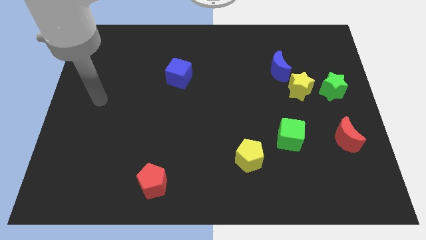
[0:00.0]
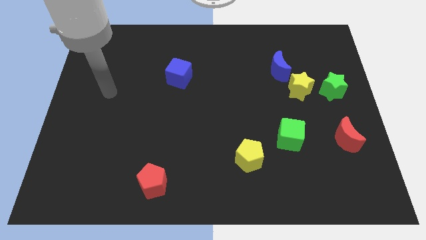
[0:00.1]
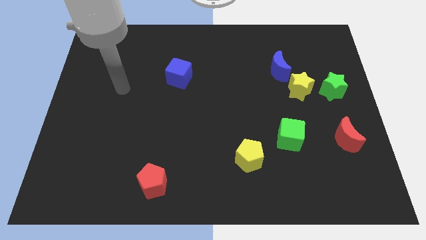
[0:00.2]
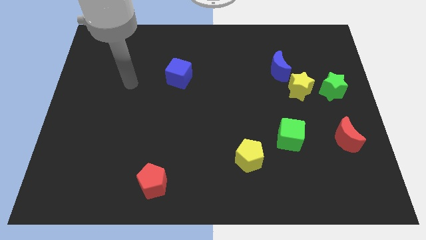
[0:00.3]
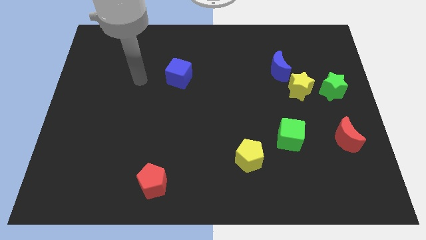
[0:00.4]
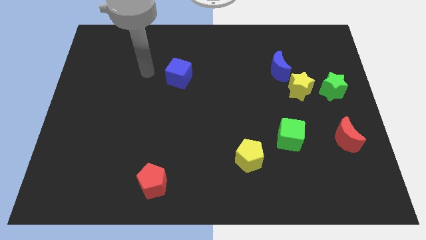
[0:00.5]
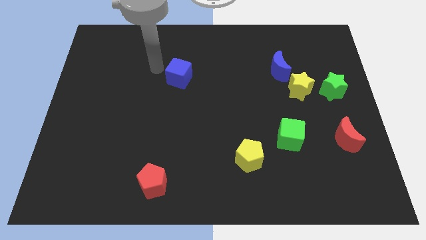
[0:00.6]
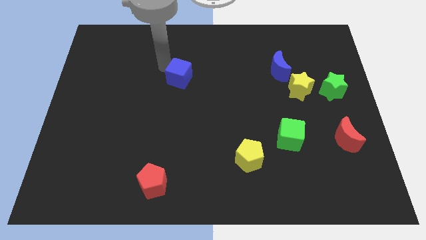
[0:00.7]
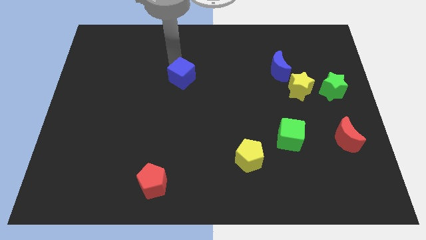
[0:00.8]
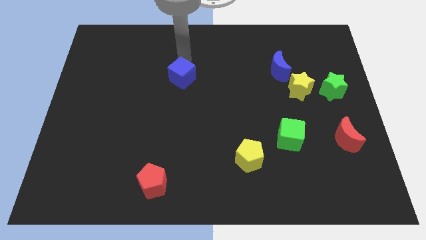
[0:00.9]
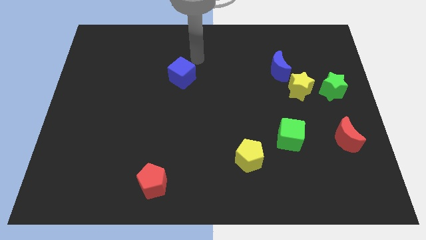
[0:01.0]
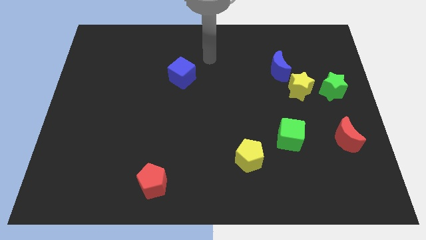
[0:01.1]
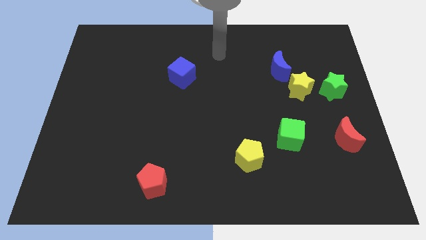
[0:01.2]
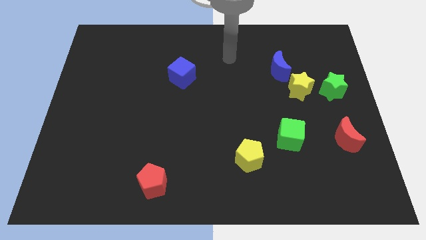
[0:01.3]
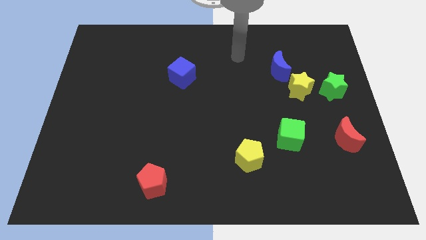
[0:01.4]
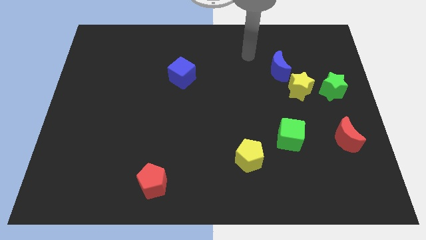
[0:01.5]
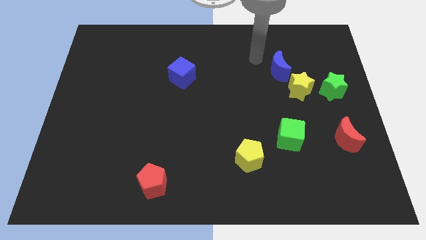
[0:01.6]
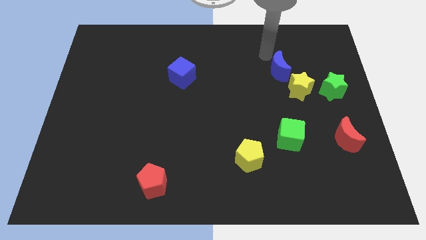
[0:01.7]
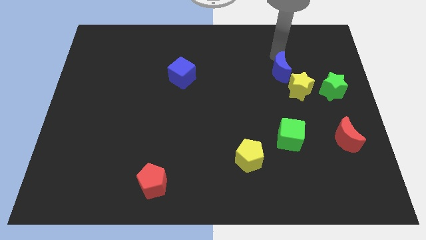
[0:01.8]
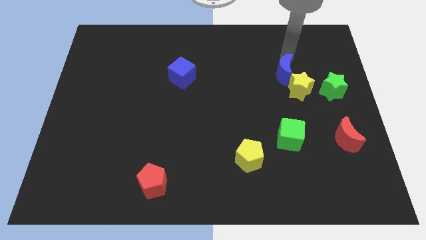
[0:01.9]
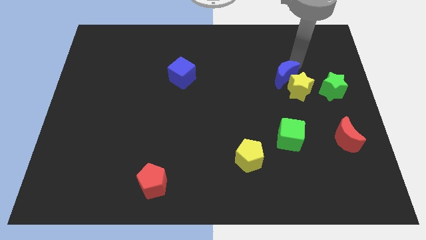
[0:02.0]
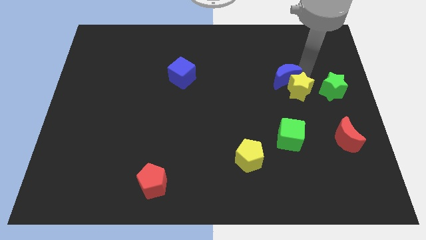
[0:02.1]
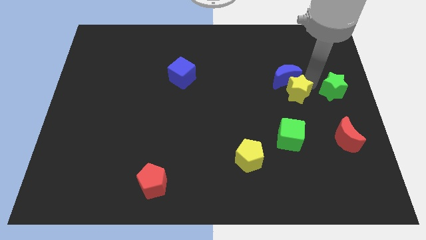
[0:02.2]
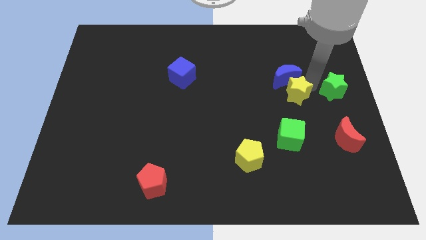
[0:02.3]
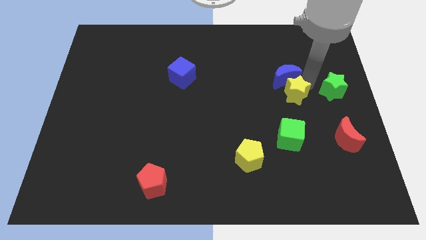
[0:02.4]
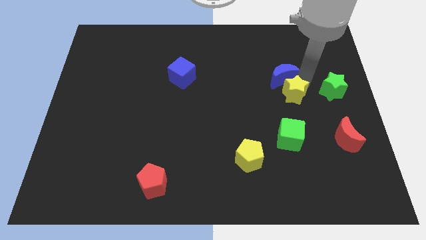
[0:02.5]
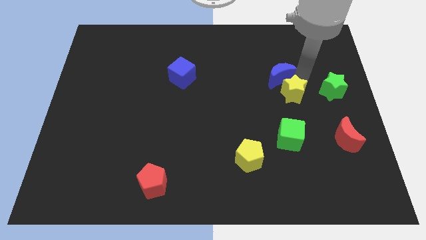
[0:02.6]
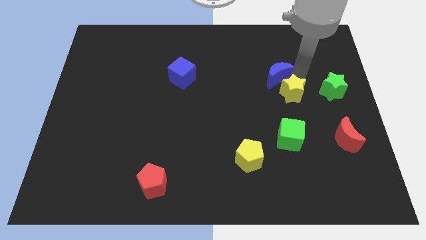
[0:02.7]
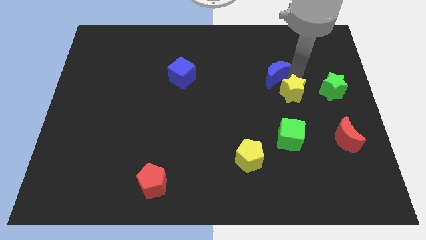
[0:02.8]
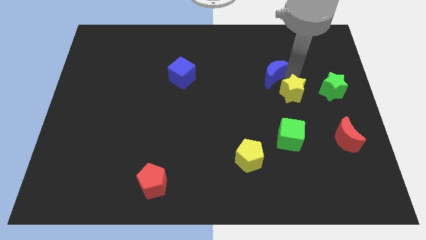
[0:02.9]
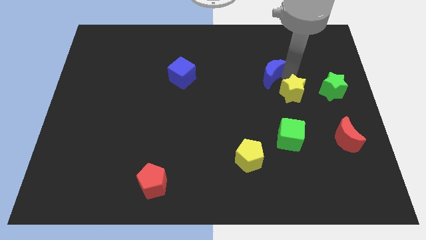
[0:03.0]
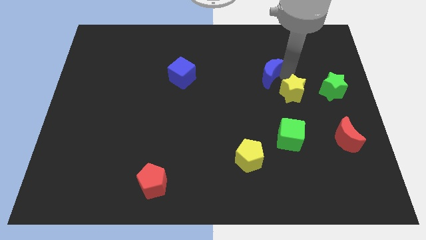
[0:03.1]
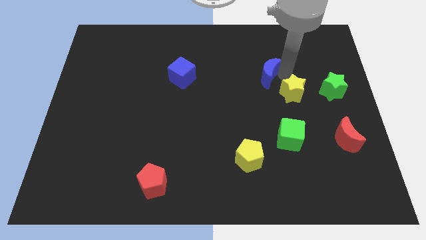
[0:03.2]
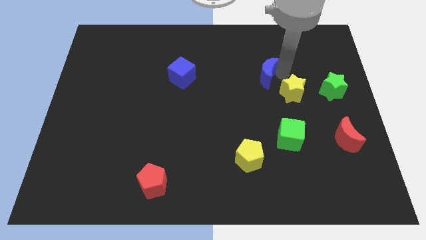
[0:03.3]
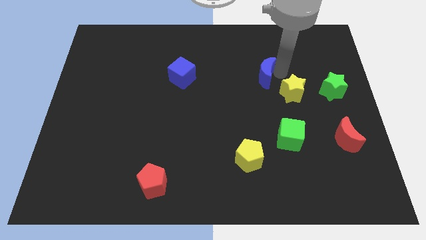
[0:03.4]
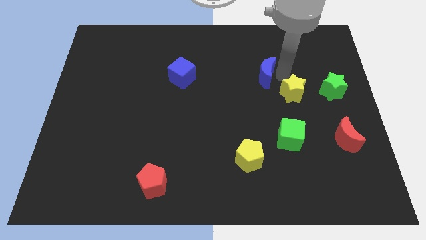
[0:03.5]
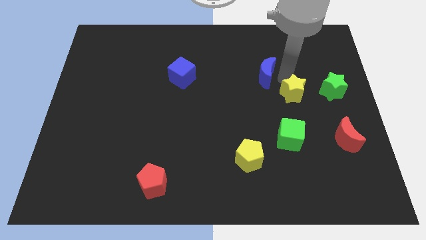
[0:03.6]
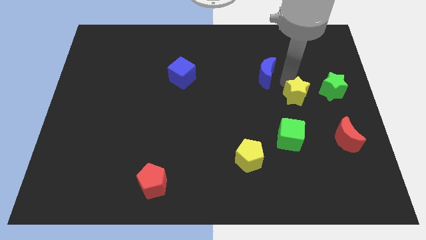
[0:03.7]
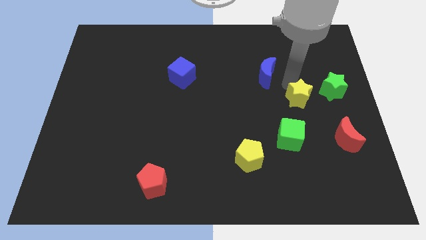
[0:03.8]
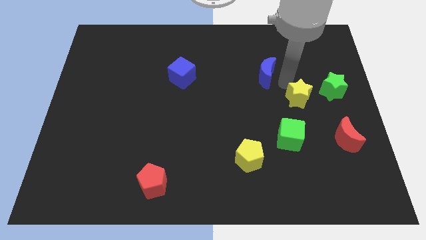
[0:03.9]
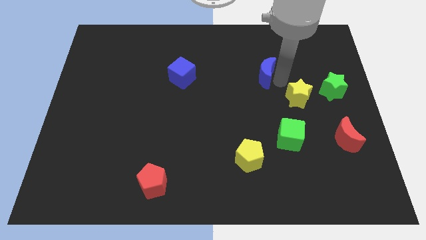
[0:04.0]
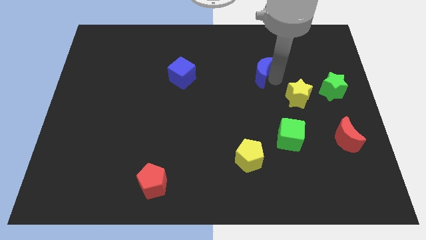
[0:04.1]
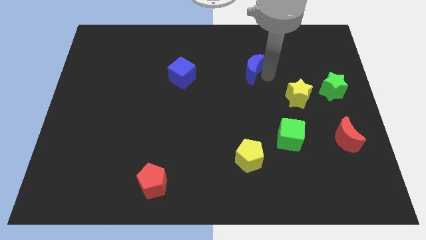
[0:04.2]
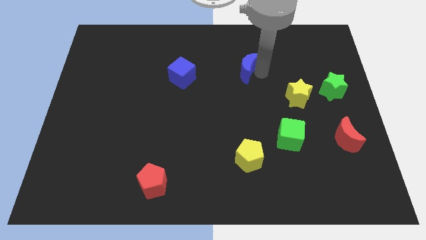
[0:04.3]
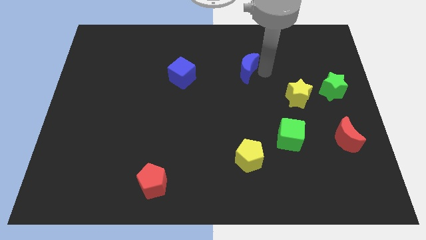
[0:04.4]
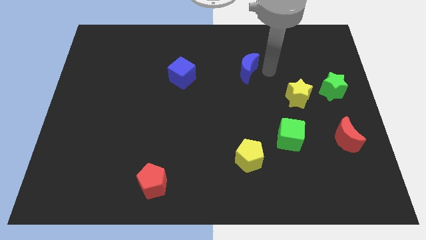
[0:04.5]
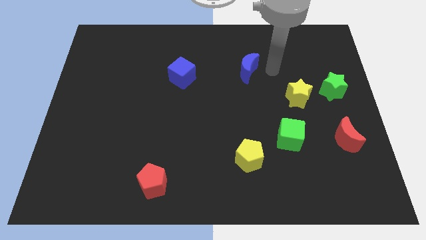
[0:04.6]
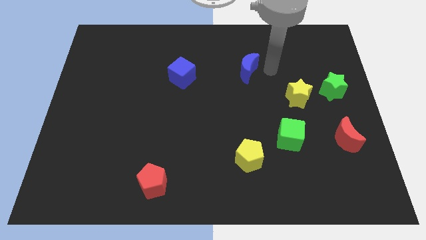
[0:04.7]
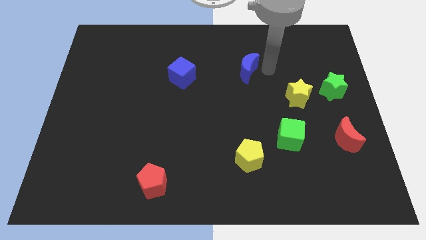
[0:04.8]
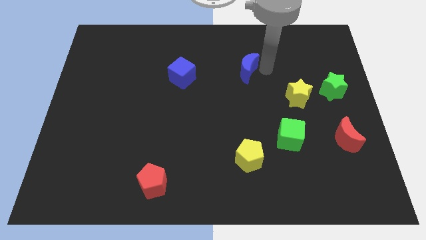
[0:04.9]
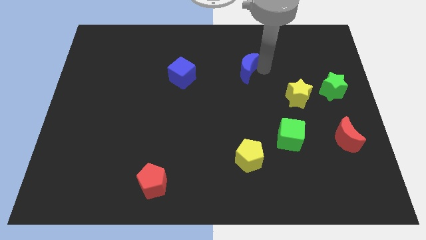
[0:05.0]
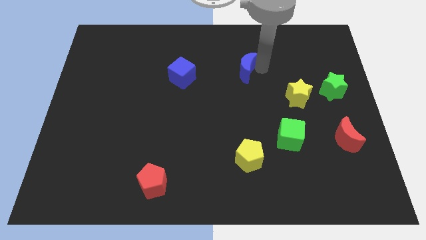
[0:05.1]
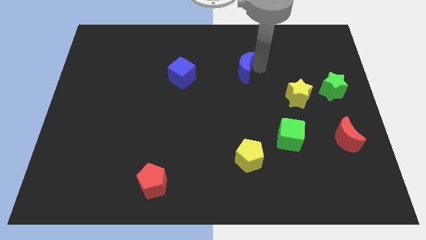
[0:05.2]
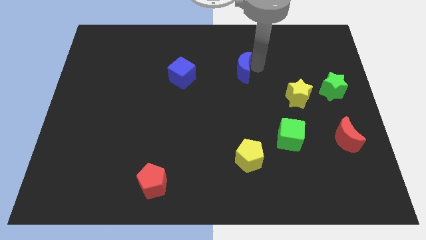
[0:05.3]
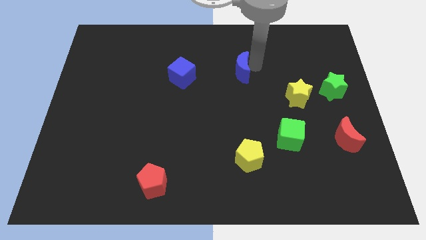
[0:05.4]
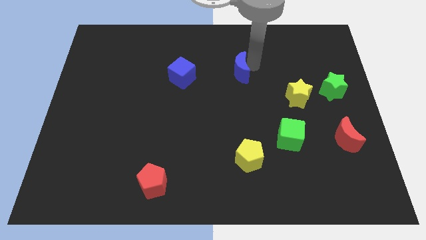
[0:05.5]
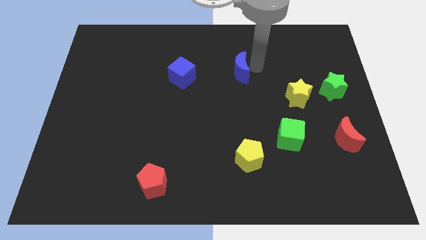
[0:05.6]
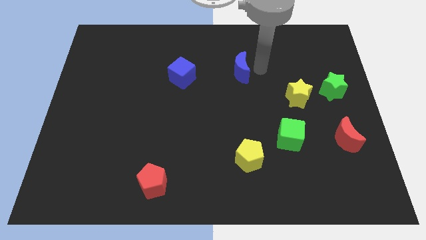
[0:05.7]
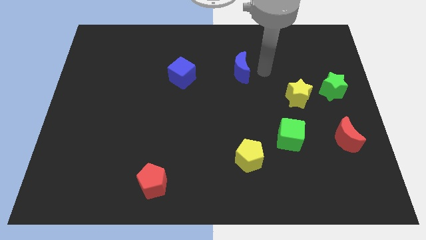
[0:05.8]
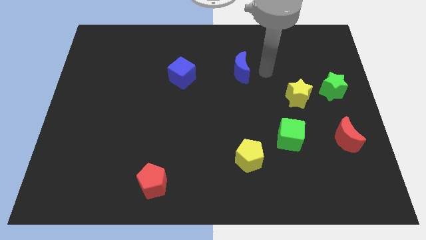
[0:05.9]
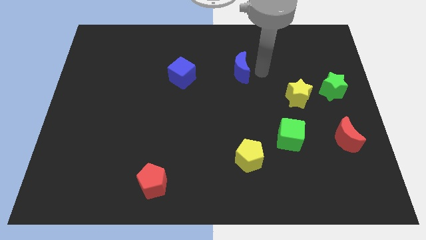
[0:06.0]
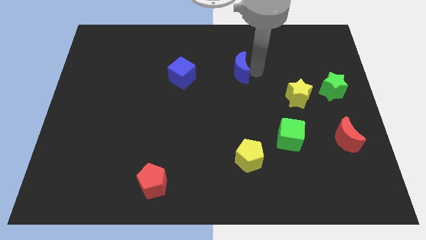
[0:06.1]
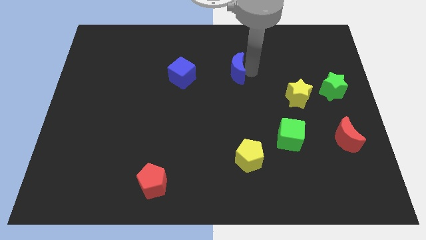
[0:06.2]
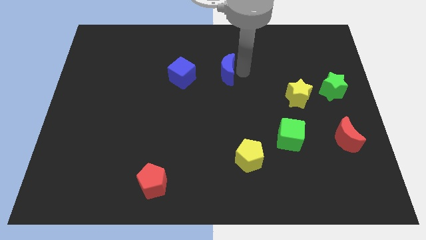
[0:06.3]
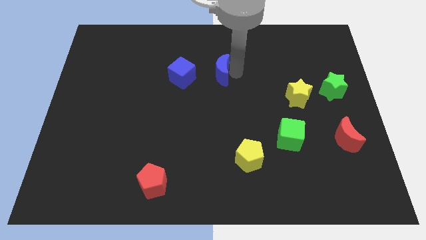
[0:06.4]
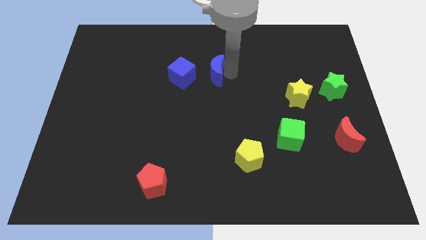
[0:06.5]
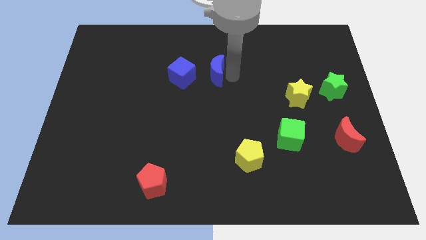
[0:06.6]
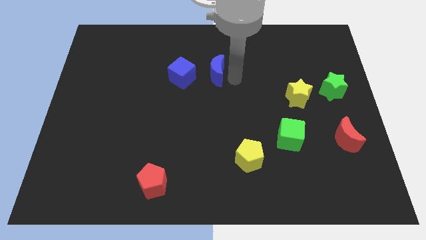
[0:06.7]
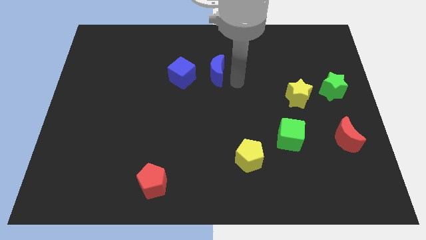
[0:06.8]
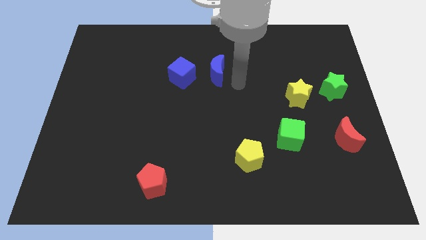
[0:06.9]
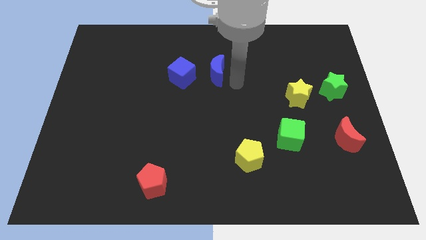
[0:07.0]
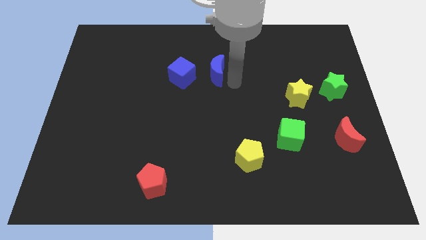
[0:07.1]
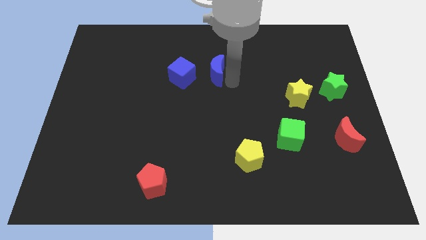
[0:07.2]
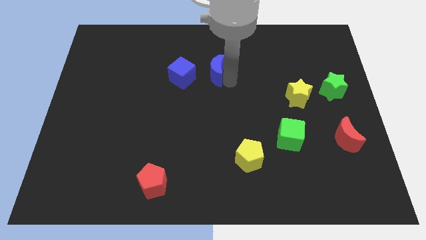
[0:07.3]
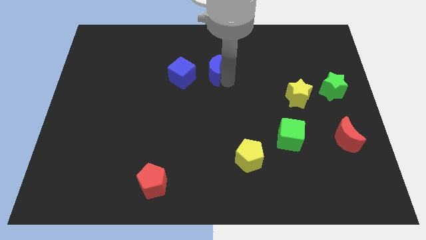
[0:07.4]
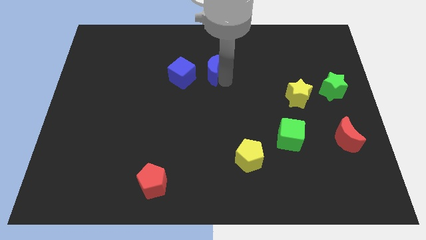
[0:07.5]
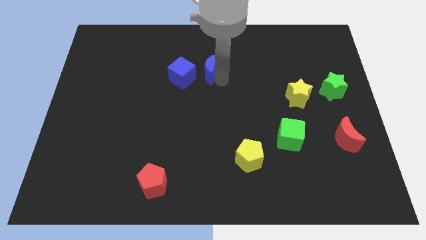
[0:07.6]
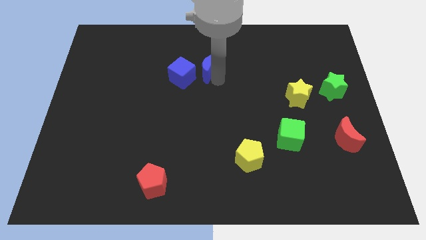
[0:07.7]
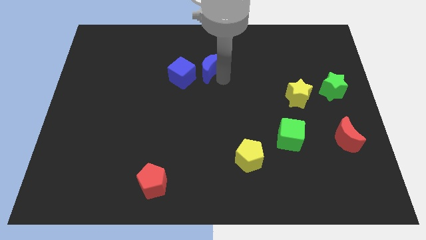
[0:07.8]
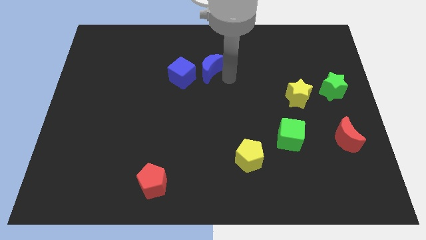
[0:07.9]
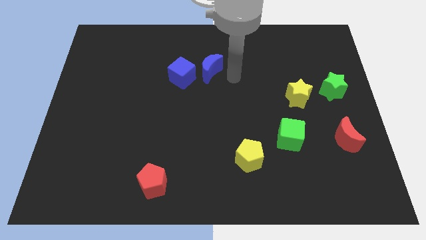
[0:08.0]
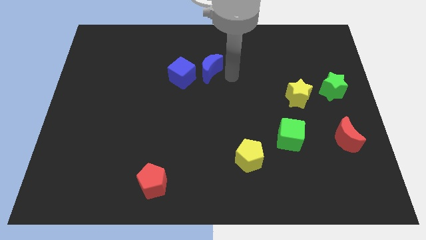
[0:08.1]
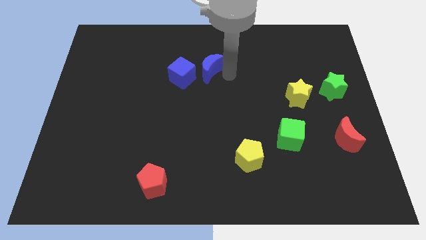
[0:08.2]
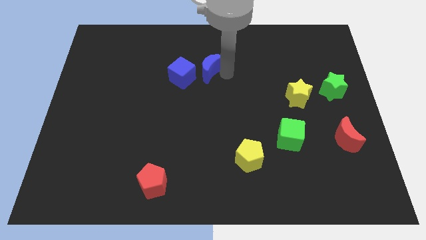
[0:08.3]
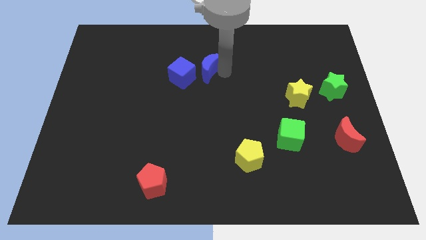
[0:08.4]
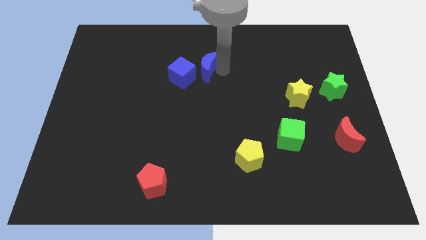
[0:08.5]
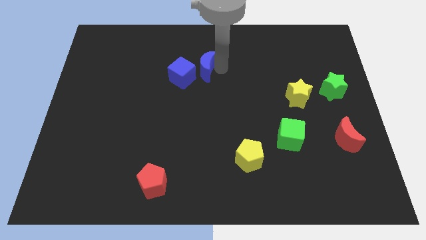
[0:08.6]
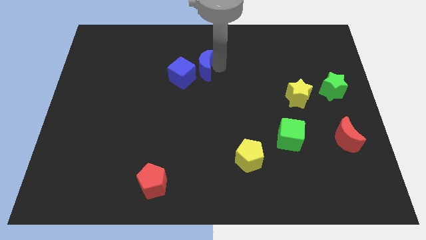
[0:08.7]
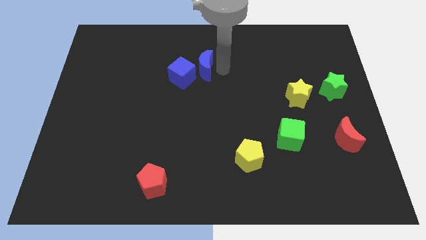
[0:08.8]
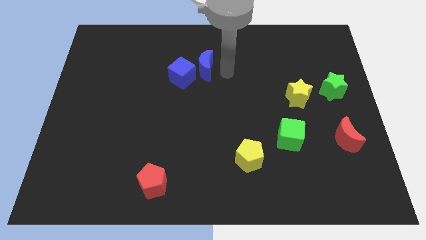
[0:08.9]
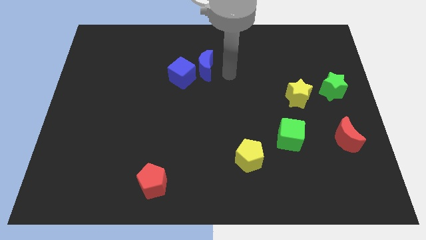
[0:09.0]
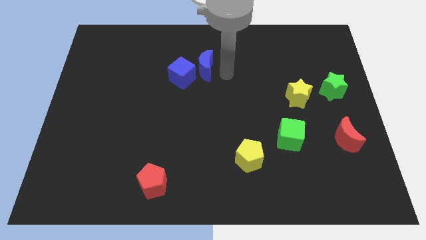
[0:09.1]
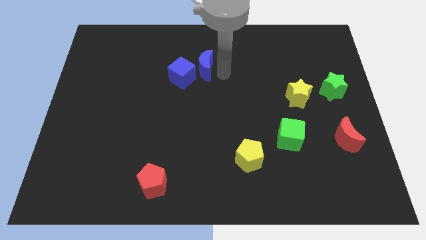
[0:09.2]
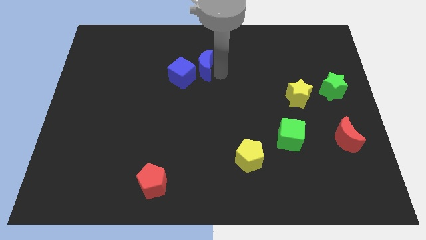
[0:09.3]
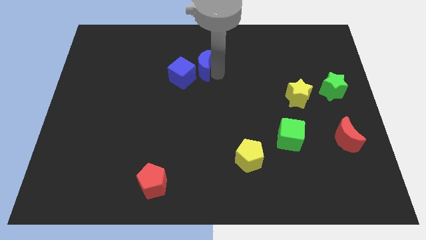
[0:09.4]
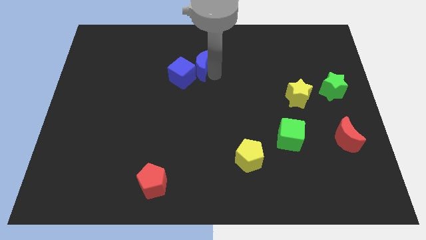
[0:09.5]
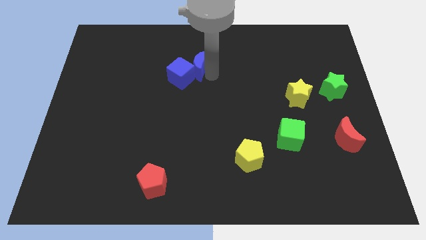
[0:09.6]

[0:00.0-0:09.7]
slide the blue moon left
